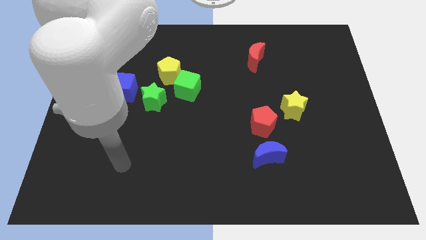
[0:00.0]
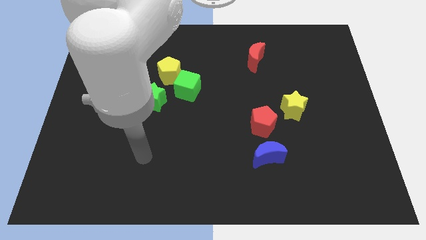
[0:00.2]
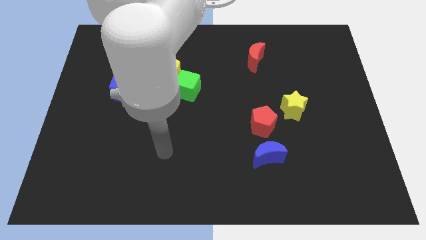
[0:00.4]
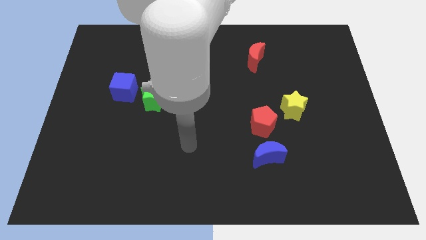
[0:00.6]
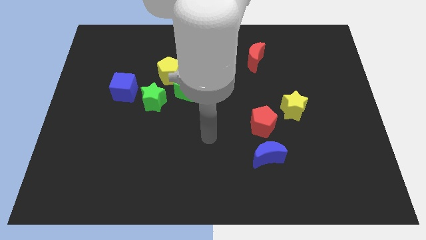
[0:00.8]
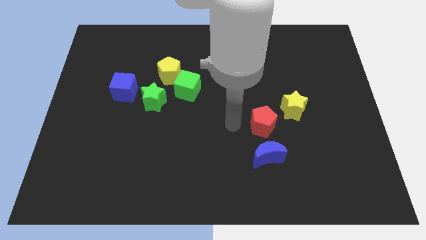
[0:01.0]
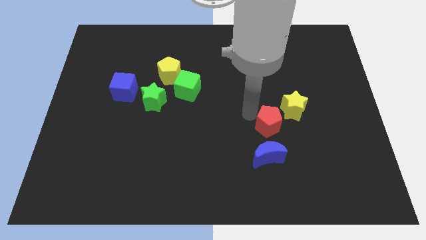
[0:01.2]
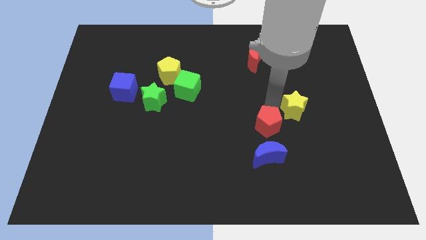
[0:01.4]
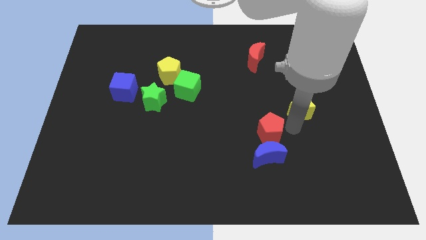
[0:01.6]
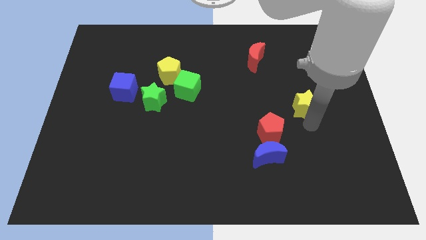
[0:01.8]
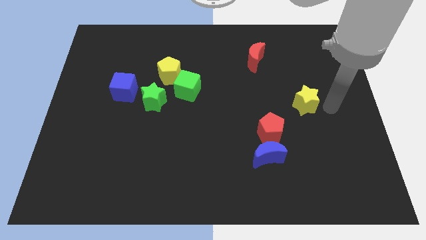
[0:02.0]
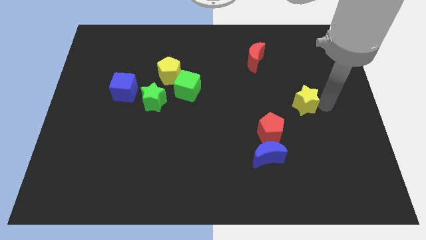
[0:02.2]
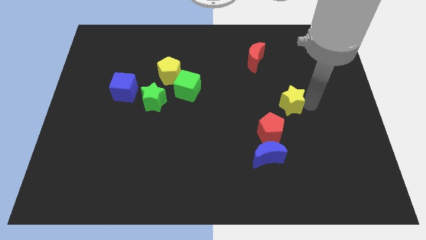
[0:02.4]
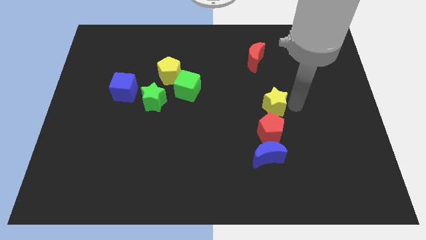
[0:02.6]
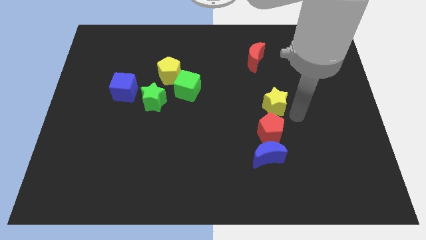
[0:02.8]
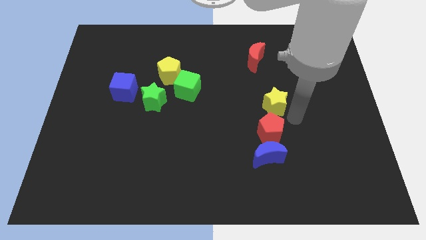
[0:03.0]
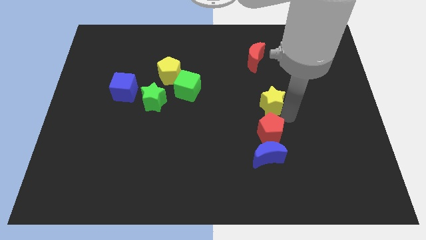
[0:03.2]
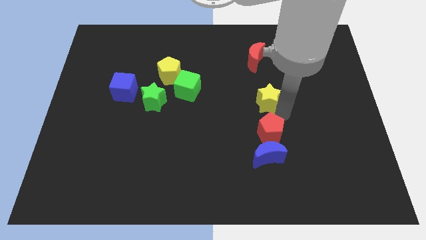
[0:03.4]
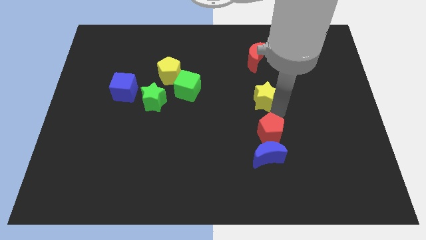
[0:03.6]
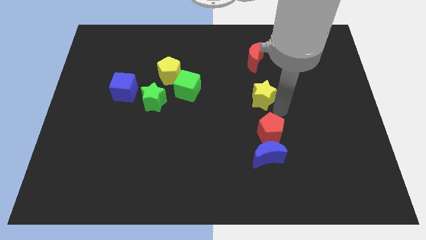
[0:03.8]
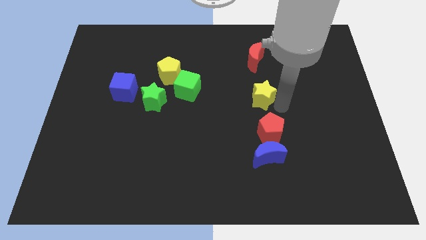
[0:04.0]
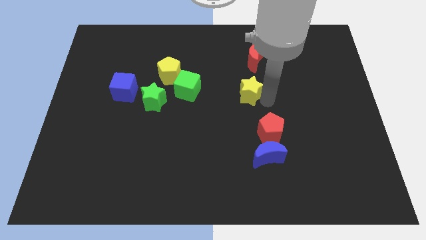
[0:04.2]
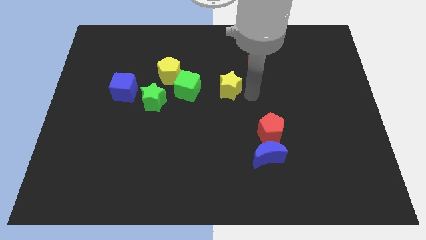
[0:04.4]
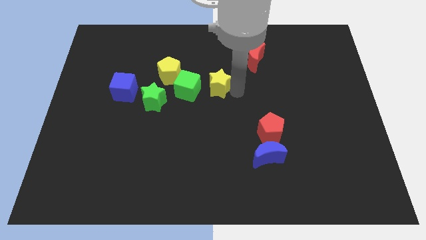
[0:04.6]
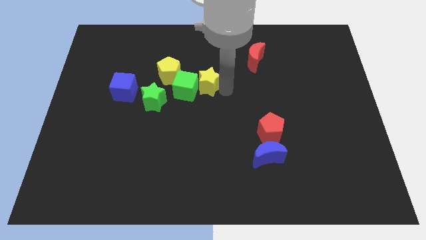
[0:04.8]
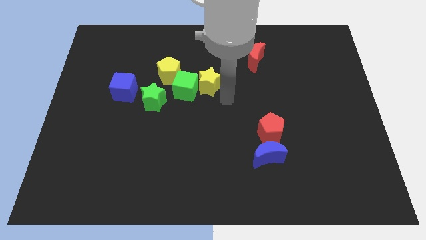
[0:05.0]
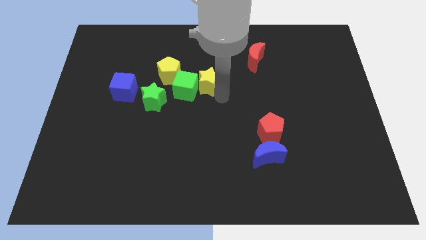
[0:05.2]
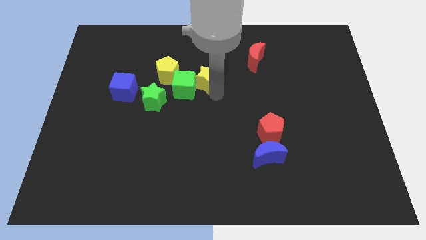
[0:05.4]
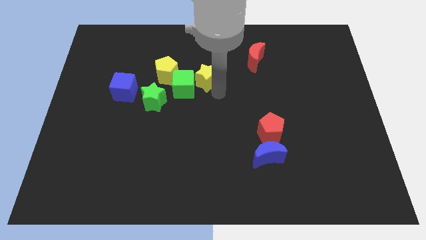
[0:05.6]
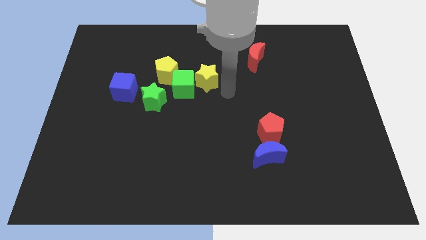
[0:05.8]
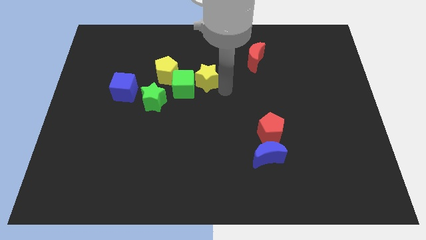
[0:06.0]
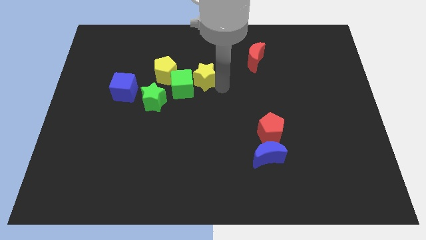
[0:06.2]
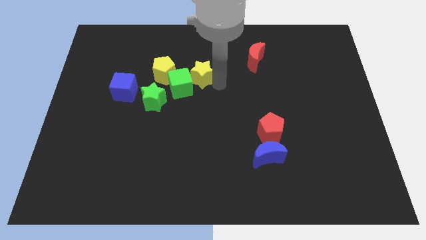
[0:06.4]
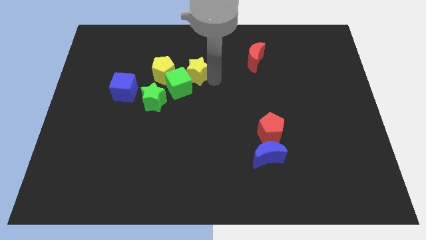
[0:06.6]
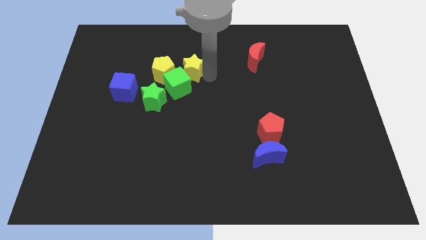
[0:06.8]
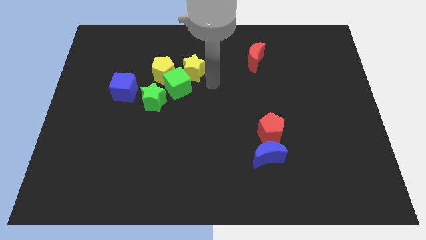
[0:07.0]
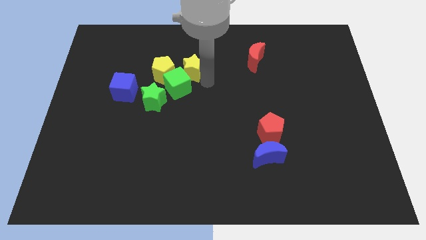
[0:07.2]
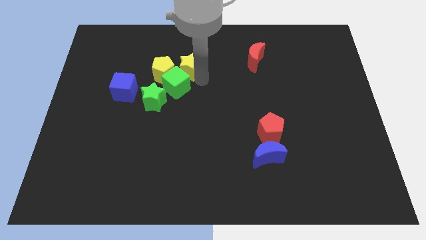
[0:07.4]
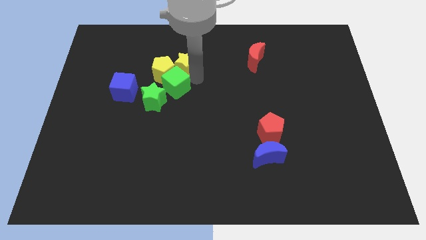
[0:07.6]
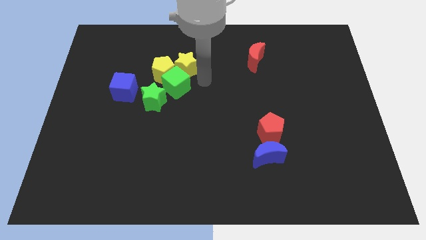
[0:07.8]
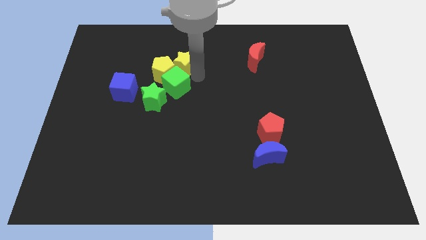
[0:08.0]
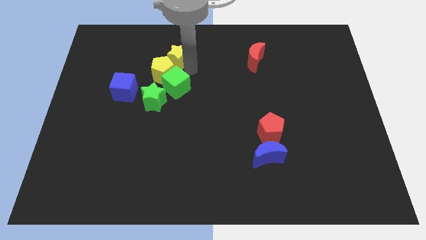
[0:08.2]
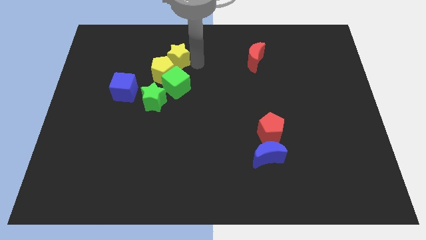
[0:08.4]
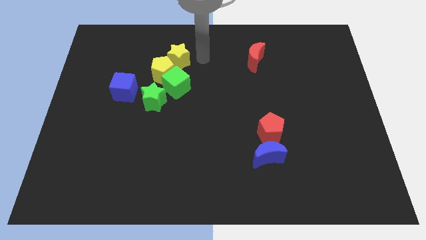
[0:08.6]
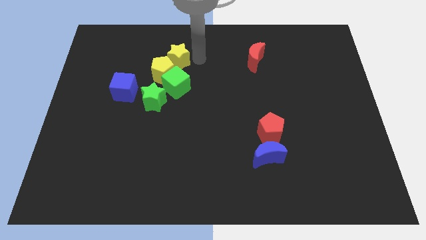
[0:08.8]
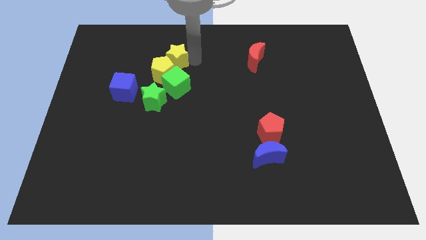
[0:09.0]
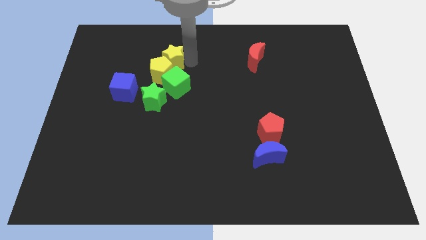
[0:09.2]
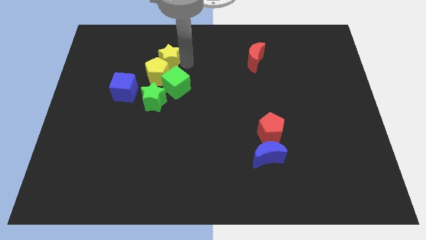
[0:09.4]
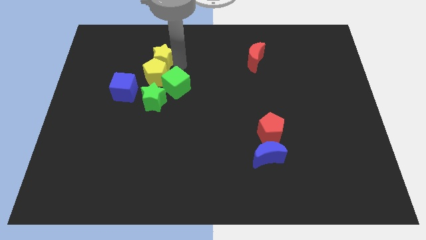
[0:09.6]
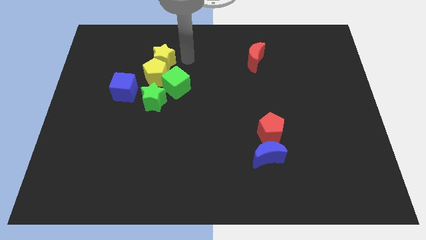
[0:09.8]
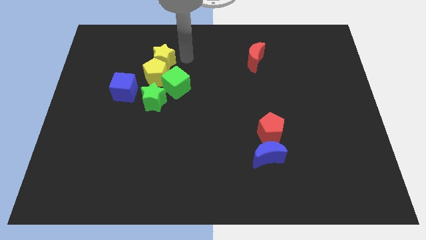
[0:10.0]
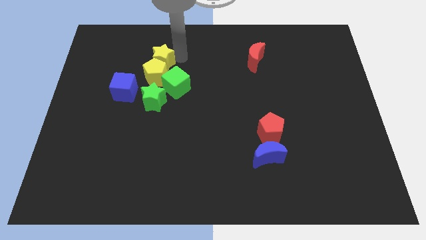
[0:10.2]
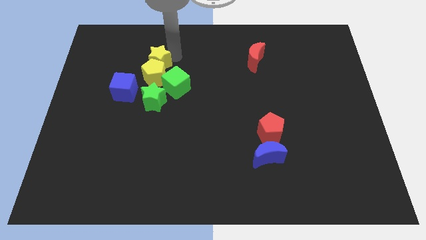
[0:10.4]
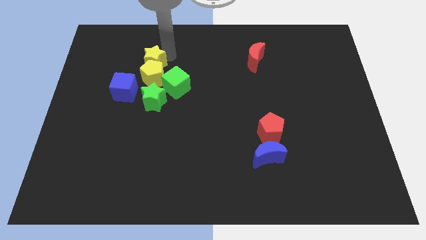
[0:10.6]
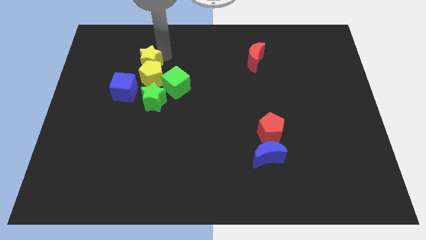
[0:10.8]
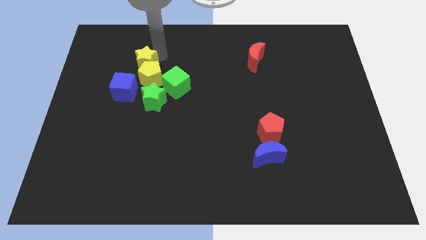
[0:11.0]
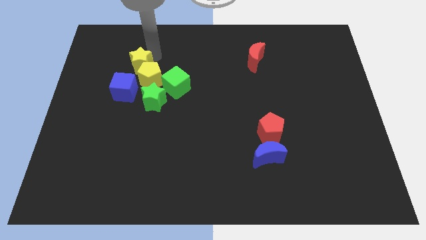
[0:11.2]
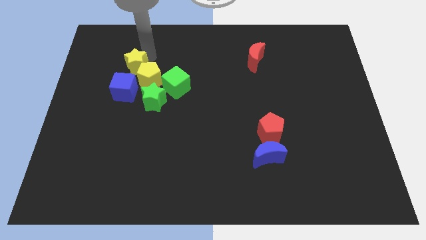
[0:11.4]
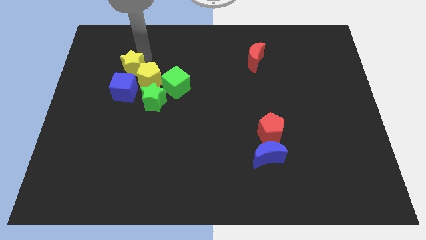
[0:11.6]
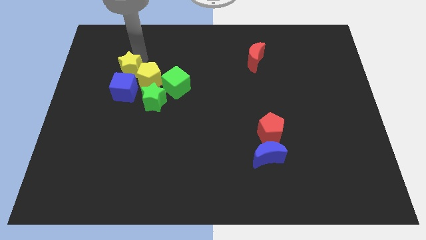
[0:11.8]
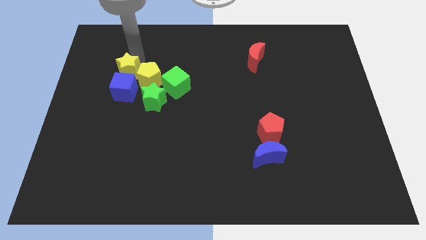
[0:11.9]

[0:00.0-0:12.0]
push the yellow star diagonally up and to the left of the blue cube

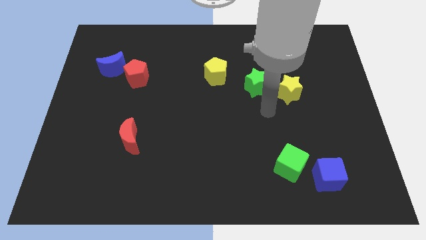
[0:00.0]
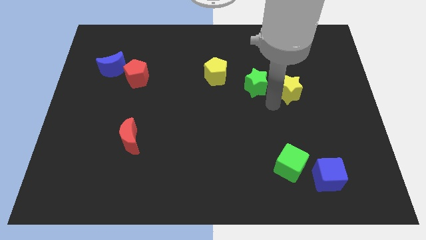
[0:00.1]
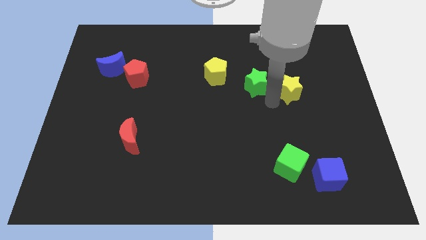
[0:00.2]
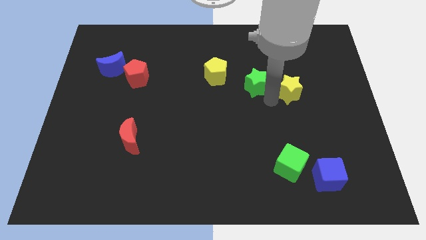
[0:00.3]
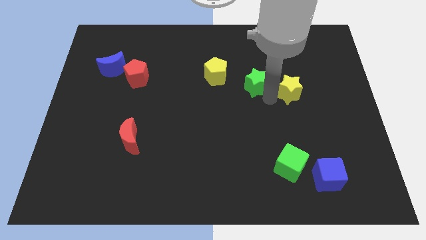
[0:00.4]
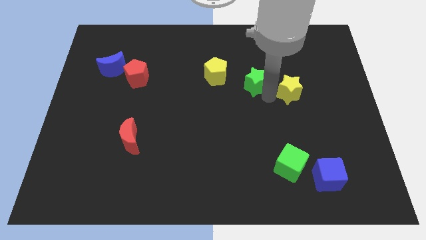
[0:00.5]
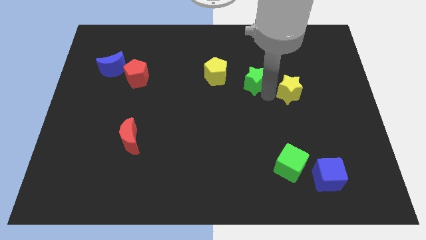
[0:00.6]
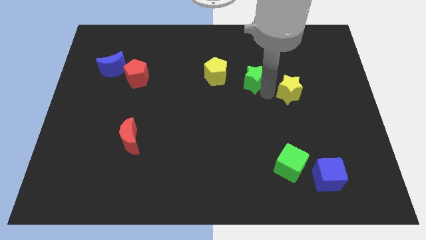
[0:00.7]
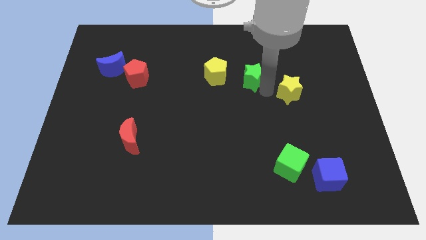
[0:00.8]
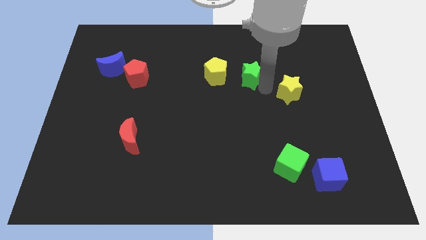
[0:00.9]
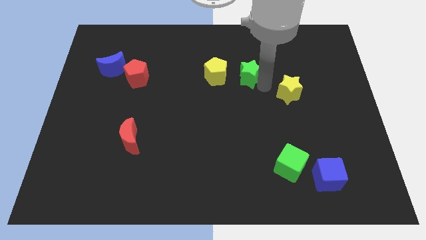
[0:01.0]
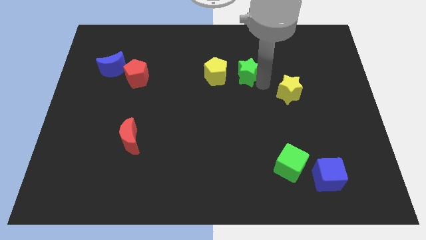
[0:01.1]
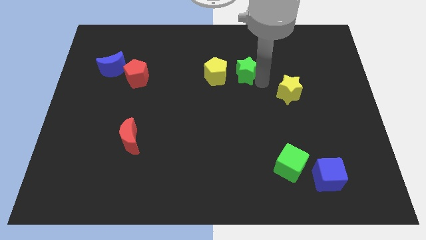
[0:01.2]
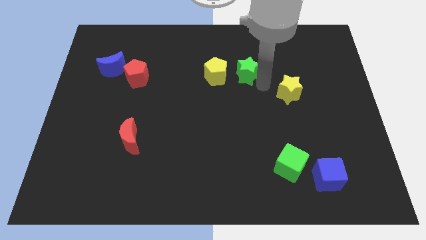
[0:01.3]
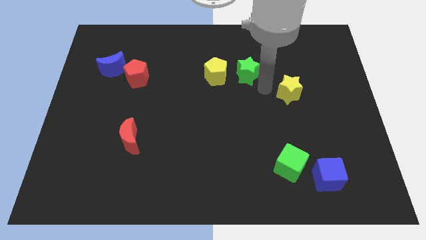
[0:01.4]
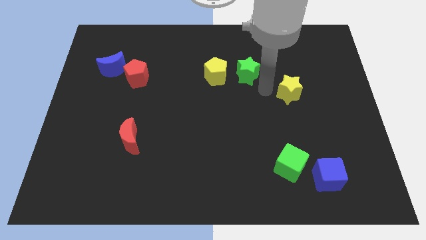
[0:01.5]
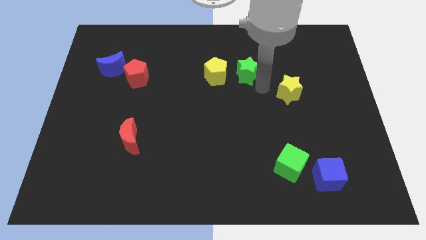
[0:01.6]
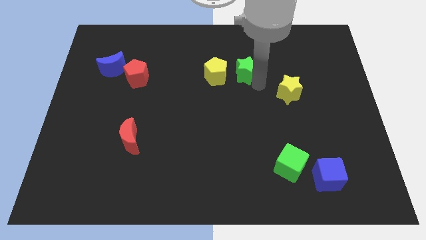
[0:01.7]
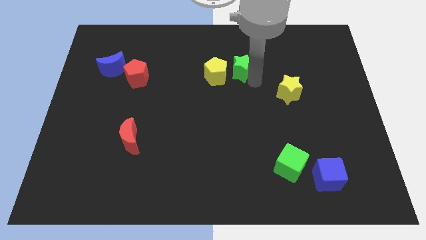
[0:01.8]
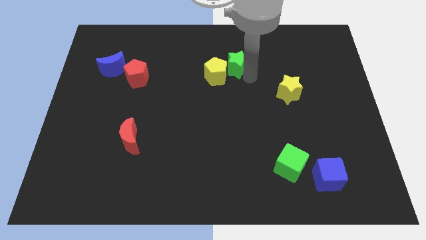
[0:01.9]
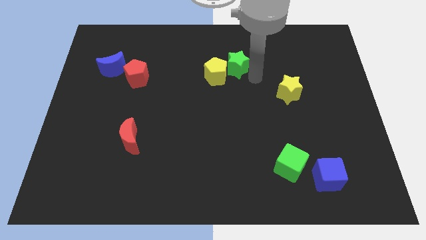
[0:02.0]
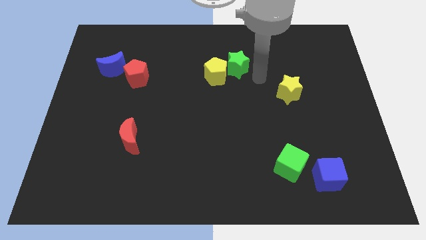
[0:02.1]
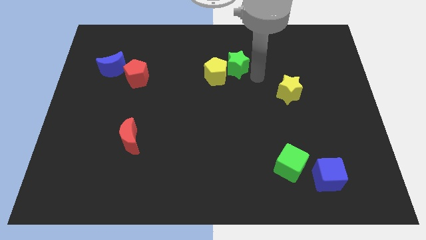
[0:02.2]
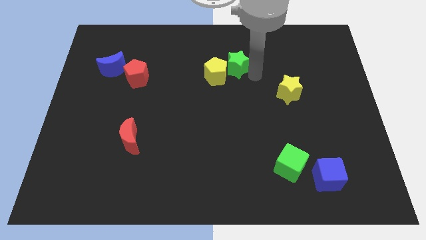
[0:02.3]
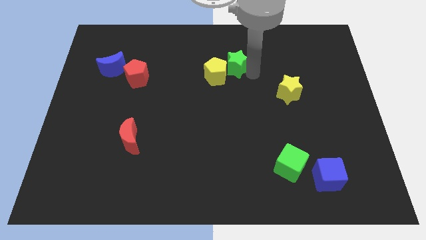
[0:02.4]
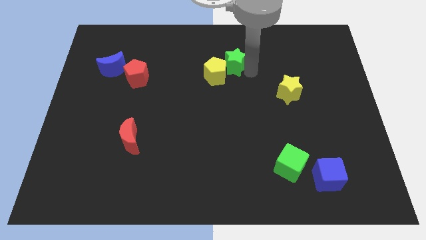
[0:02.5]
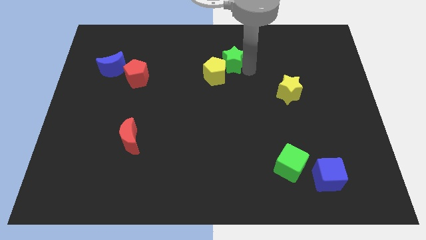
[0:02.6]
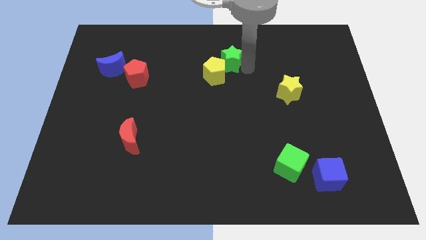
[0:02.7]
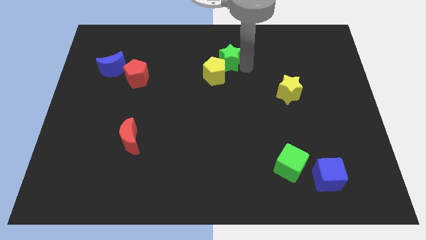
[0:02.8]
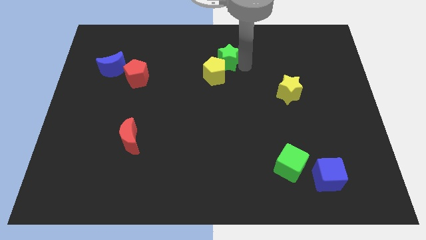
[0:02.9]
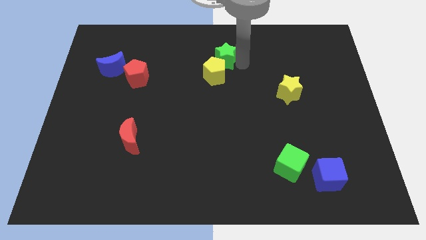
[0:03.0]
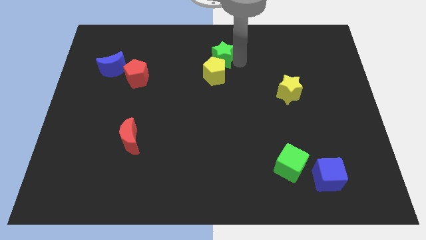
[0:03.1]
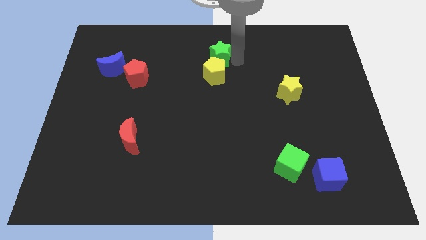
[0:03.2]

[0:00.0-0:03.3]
put the green star to the top left side of the yellow pentagon
